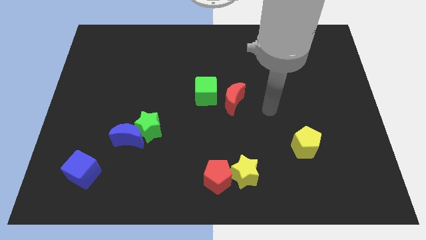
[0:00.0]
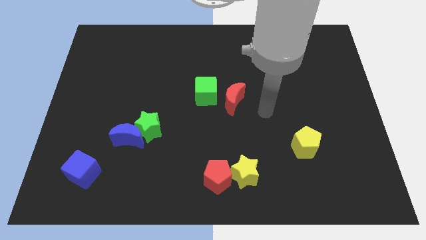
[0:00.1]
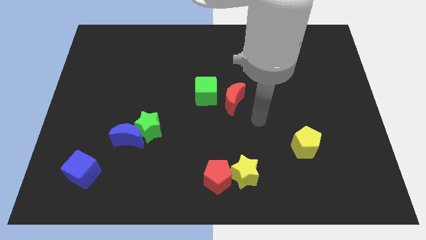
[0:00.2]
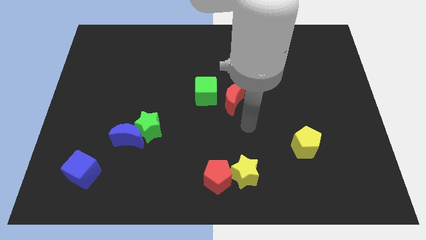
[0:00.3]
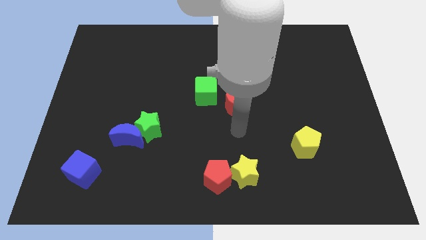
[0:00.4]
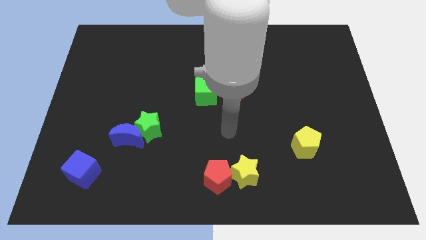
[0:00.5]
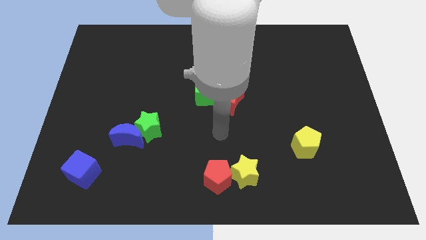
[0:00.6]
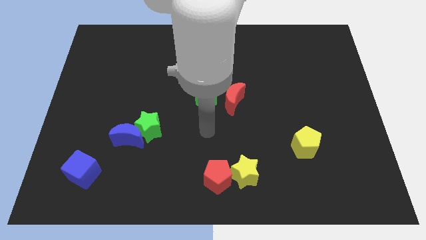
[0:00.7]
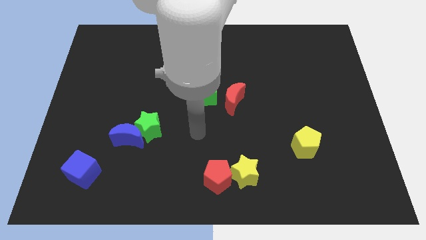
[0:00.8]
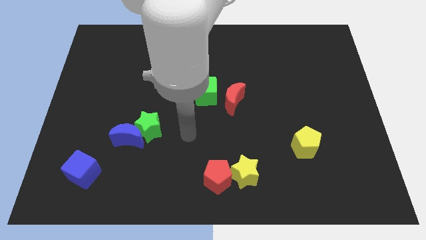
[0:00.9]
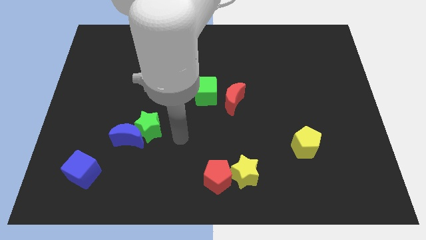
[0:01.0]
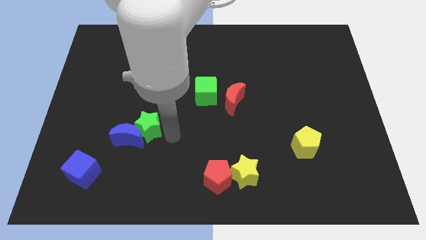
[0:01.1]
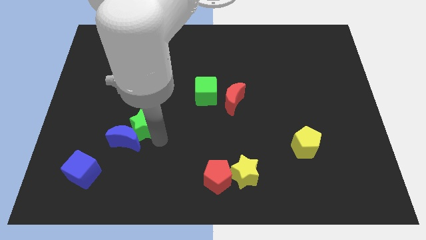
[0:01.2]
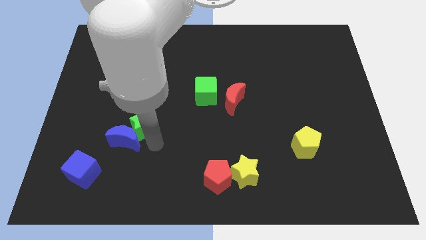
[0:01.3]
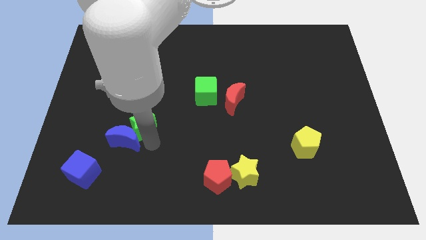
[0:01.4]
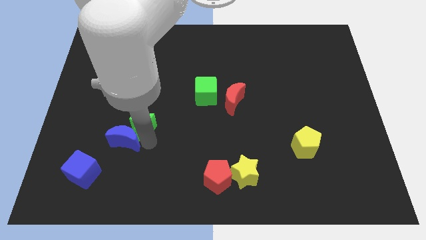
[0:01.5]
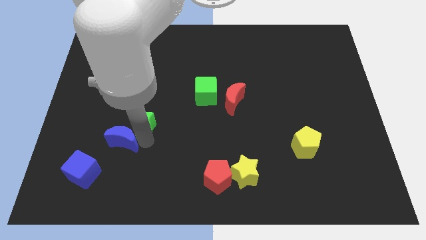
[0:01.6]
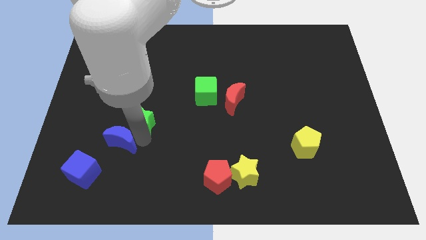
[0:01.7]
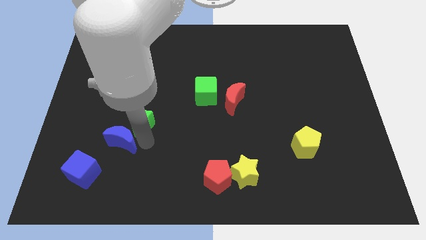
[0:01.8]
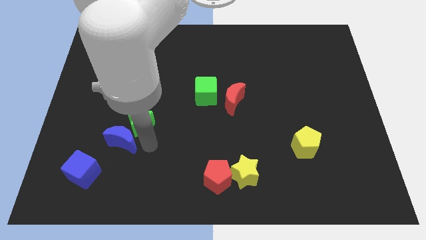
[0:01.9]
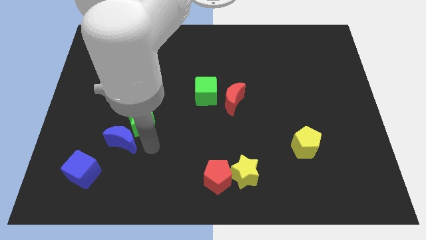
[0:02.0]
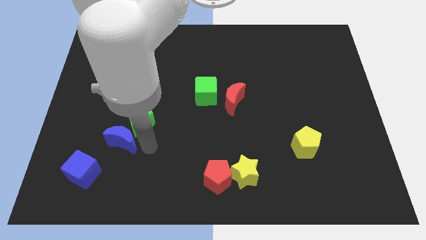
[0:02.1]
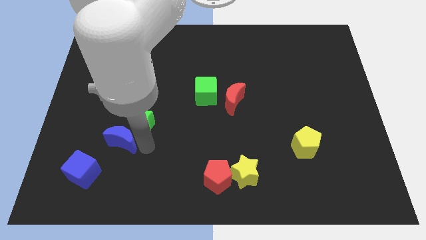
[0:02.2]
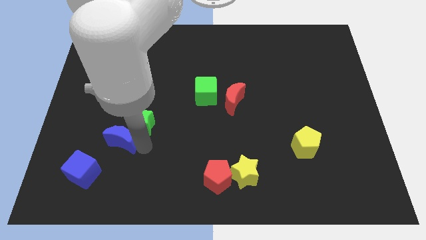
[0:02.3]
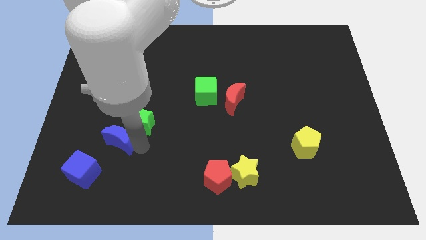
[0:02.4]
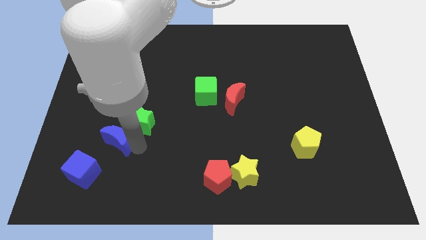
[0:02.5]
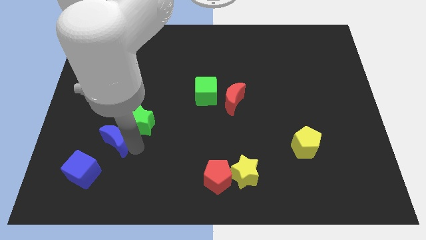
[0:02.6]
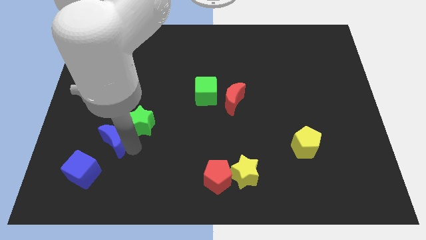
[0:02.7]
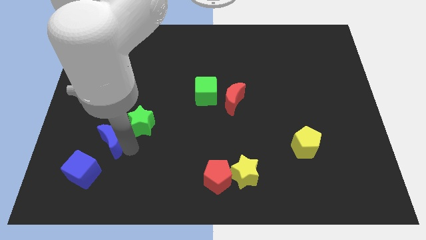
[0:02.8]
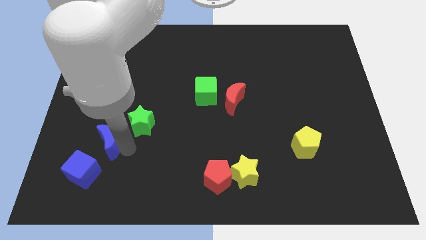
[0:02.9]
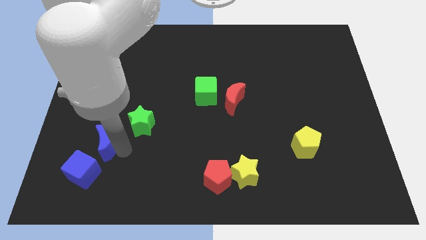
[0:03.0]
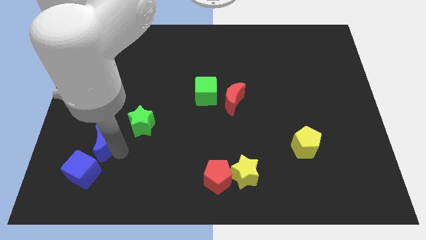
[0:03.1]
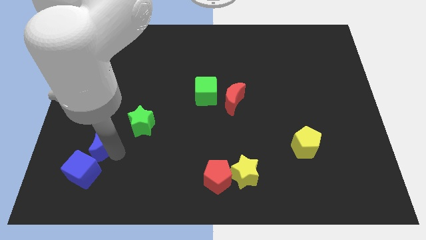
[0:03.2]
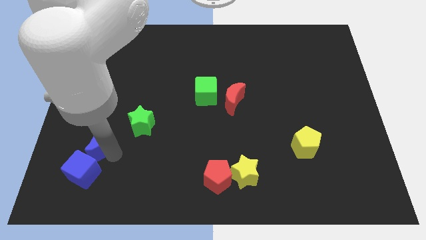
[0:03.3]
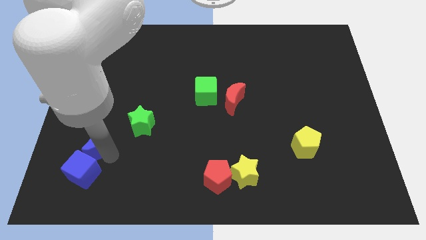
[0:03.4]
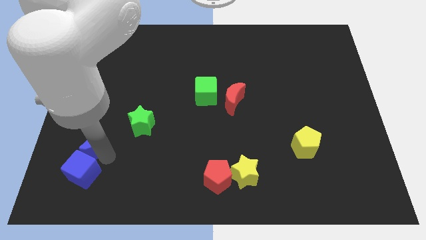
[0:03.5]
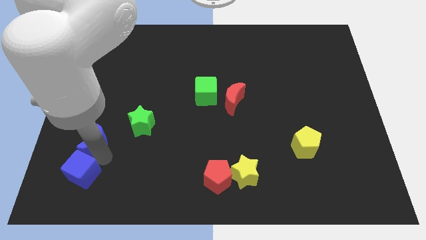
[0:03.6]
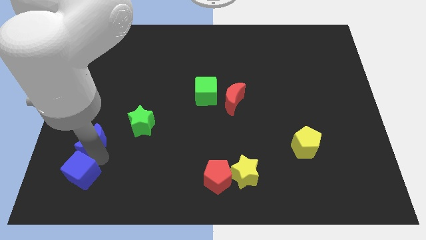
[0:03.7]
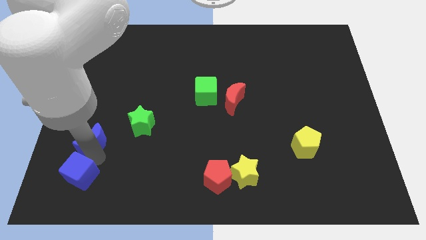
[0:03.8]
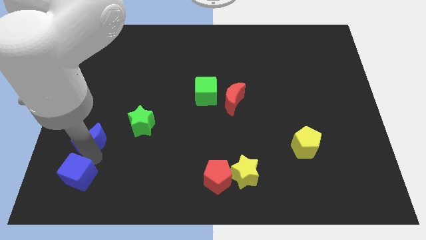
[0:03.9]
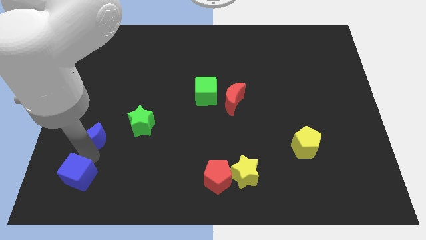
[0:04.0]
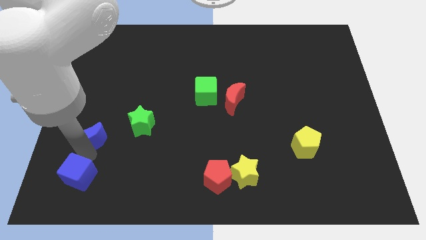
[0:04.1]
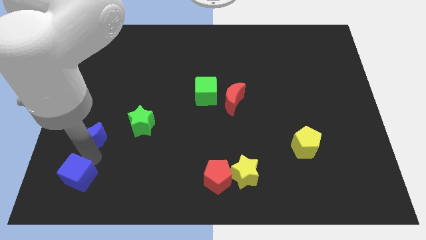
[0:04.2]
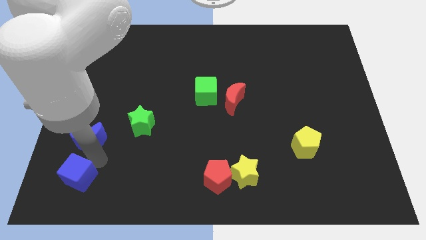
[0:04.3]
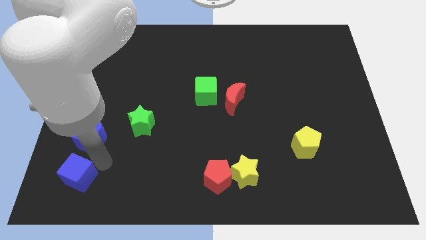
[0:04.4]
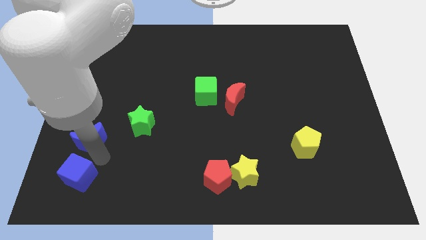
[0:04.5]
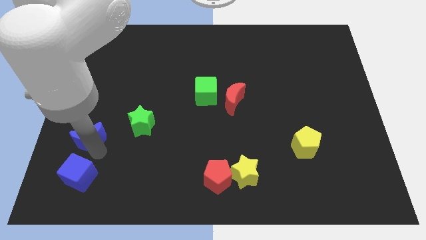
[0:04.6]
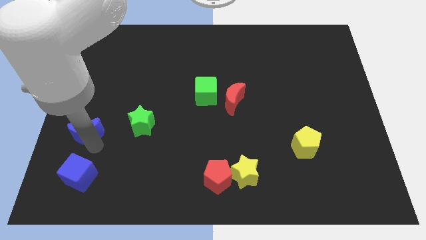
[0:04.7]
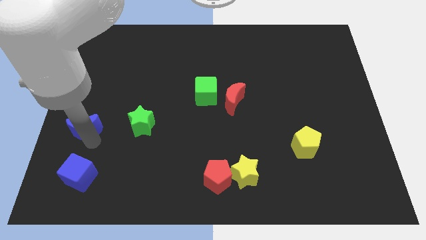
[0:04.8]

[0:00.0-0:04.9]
move the blue moon to the left side

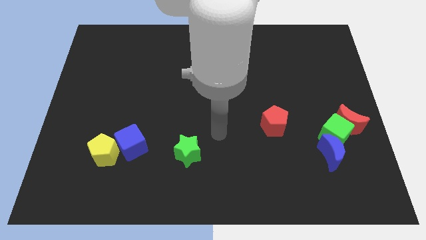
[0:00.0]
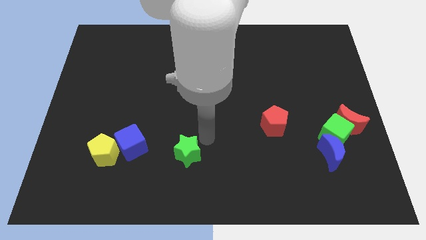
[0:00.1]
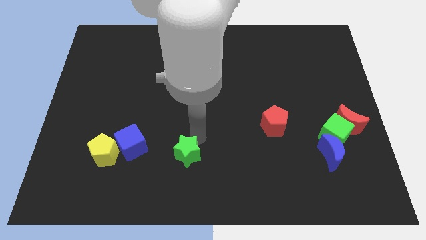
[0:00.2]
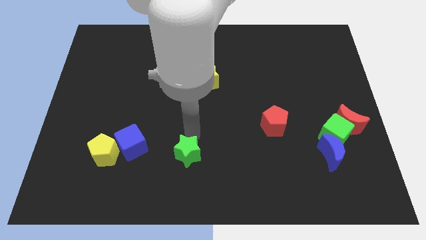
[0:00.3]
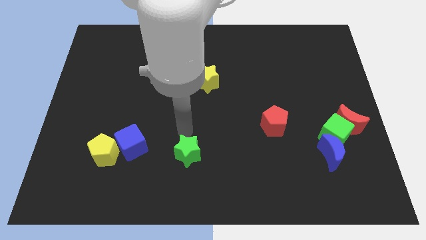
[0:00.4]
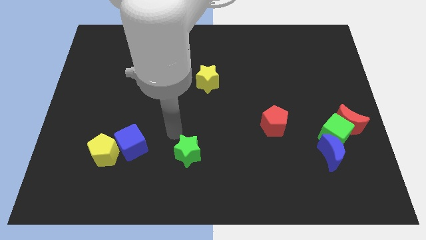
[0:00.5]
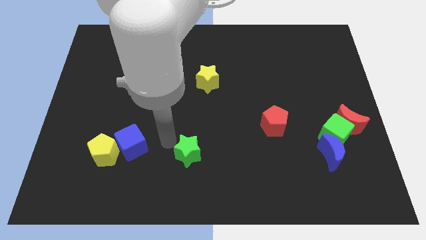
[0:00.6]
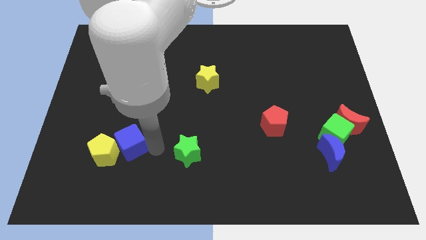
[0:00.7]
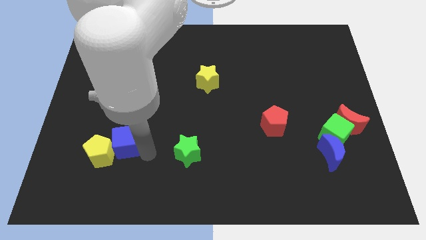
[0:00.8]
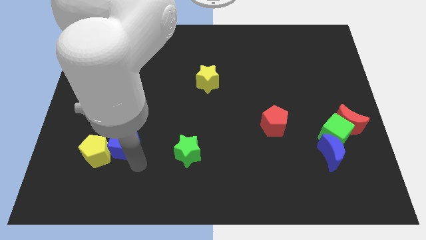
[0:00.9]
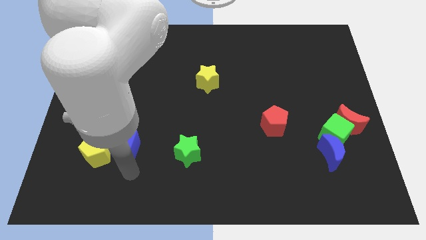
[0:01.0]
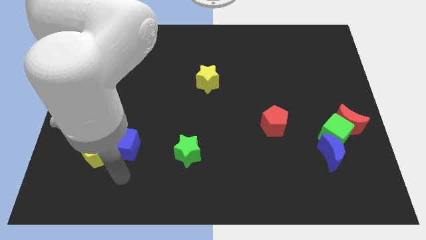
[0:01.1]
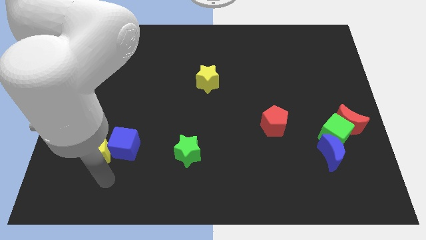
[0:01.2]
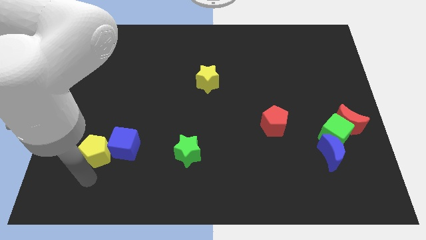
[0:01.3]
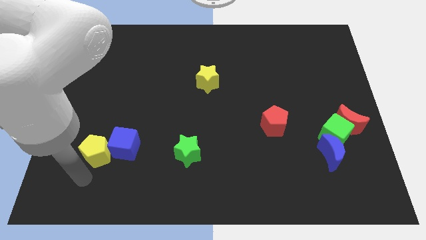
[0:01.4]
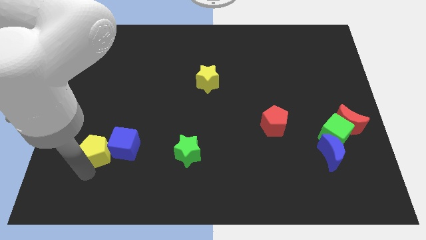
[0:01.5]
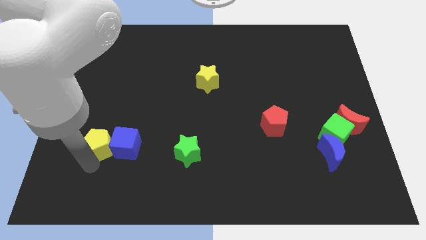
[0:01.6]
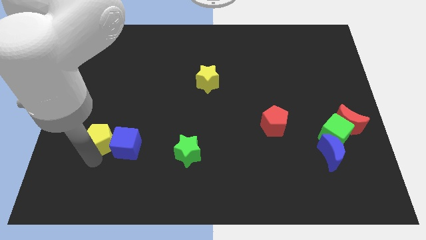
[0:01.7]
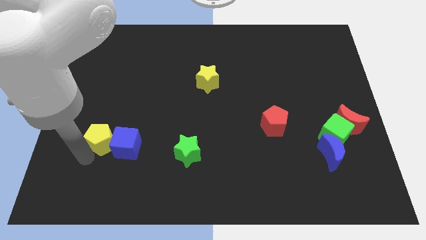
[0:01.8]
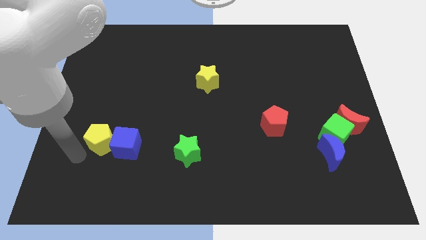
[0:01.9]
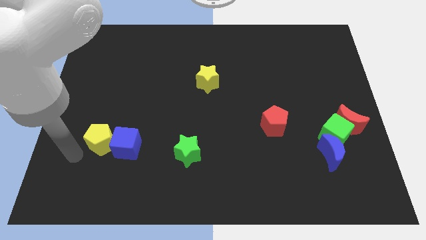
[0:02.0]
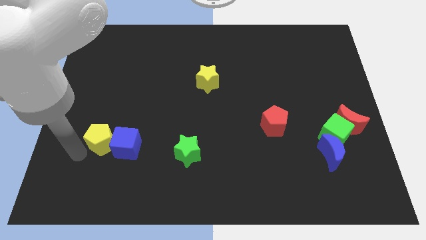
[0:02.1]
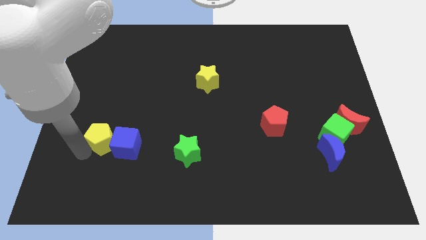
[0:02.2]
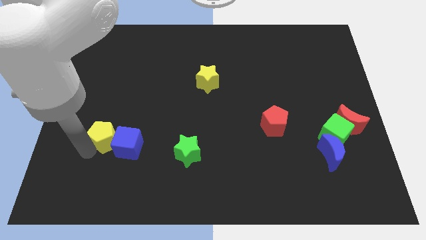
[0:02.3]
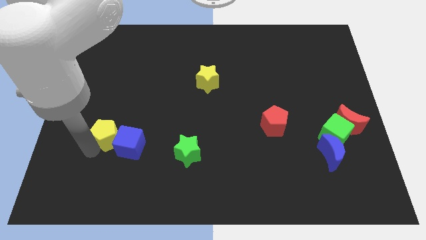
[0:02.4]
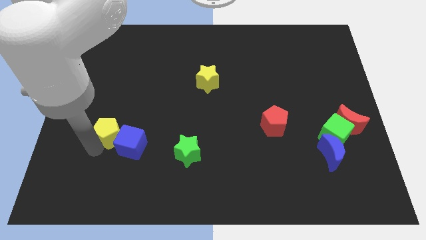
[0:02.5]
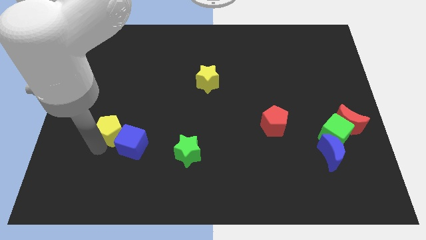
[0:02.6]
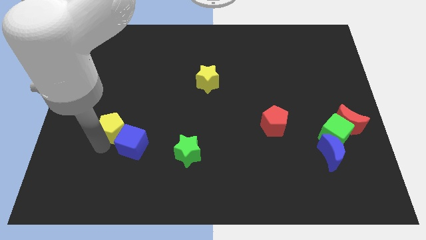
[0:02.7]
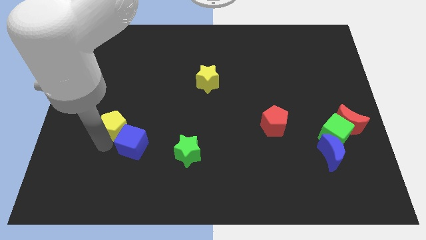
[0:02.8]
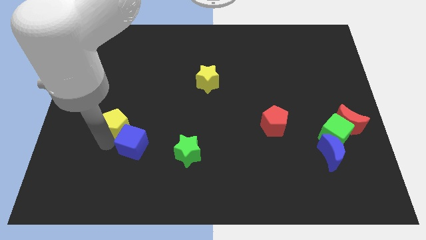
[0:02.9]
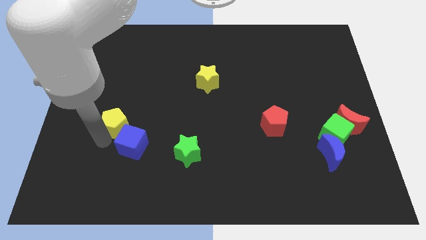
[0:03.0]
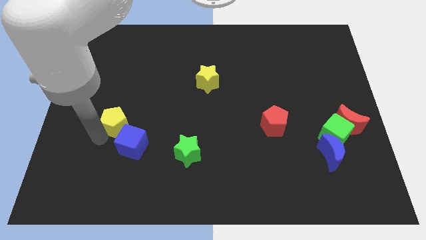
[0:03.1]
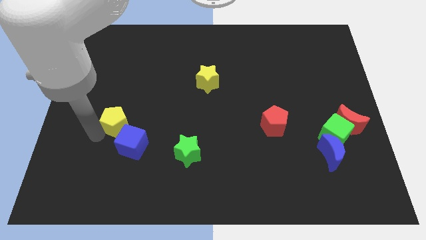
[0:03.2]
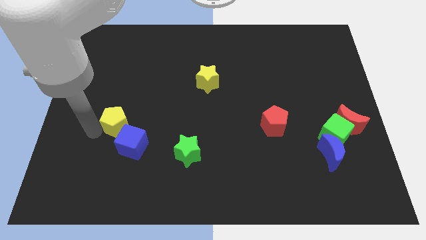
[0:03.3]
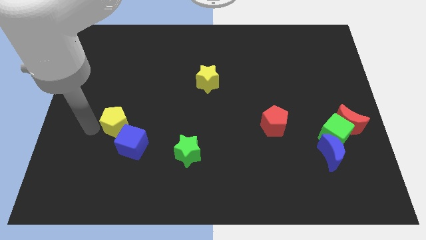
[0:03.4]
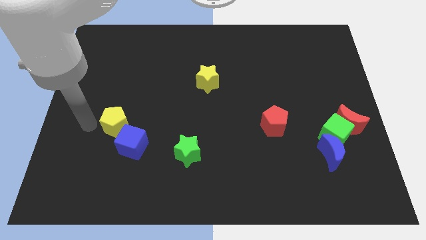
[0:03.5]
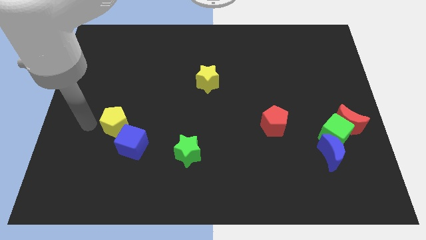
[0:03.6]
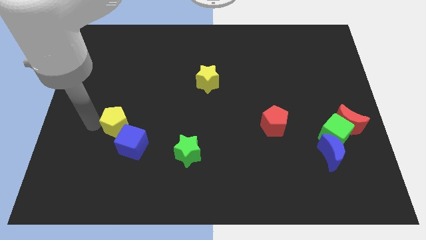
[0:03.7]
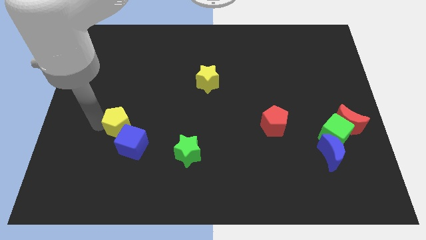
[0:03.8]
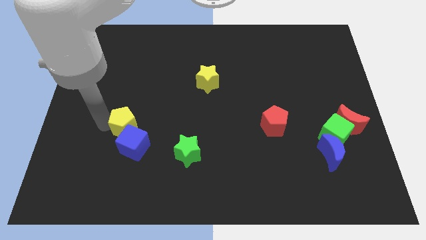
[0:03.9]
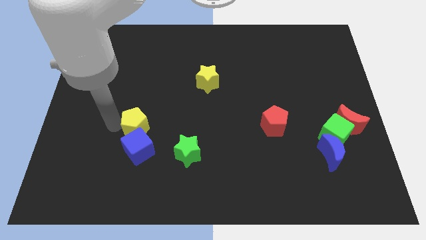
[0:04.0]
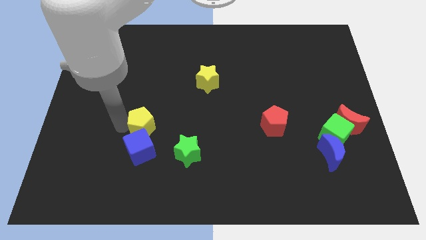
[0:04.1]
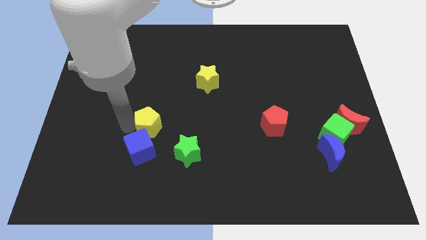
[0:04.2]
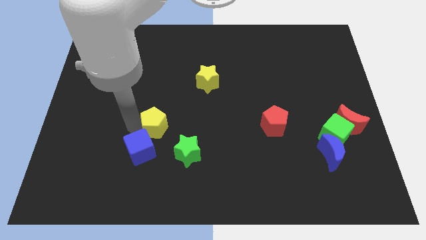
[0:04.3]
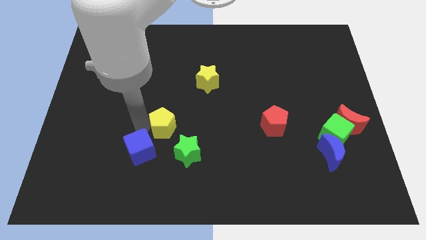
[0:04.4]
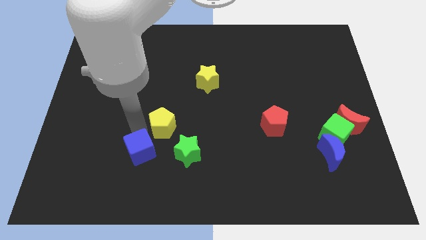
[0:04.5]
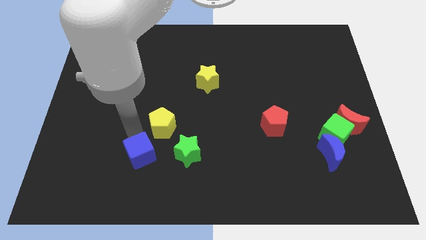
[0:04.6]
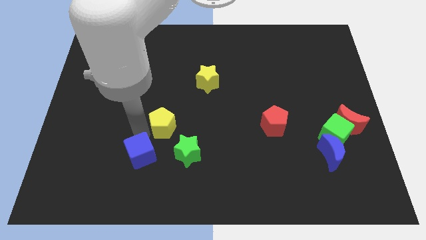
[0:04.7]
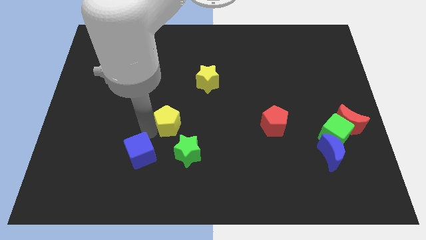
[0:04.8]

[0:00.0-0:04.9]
push the yellow pentagon to the center
